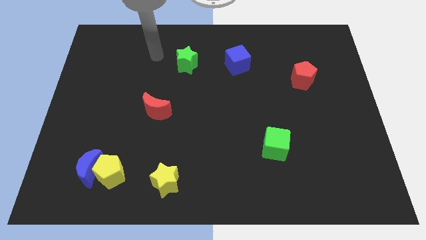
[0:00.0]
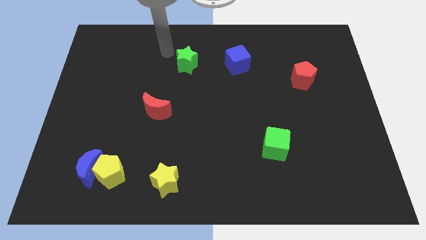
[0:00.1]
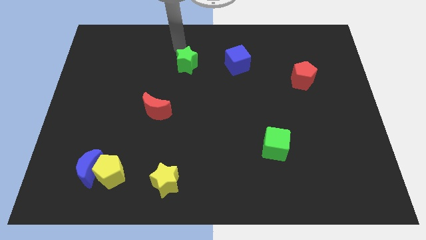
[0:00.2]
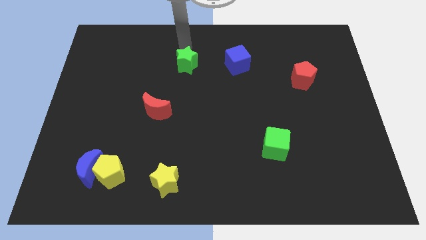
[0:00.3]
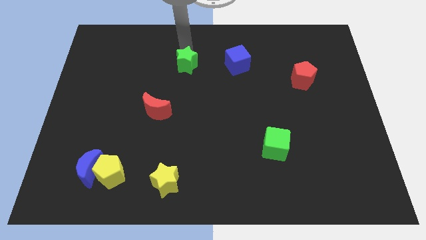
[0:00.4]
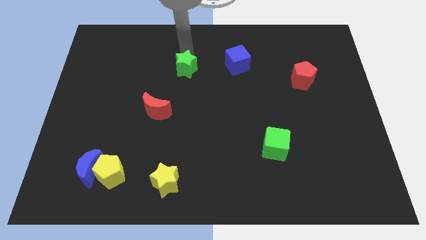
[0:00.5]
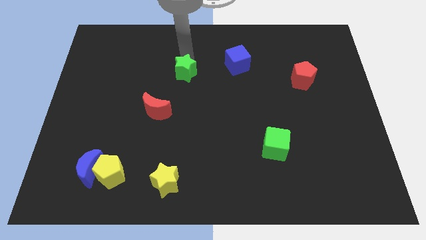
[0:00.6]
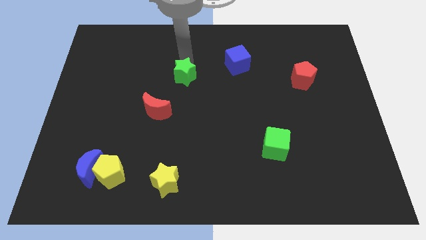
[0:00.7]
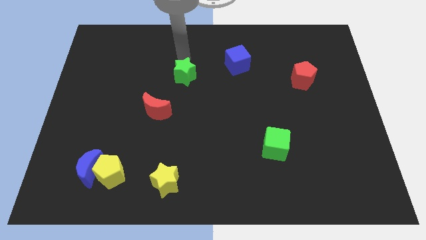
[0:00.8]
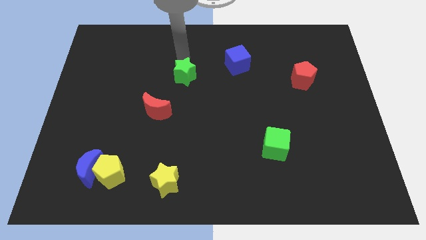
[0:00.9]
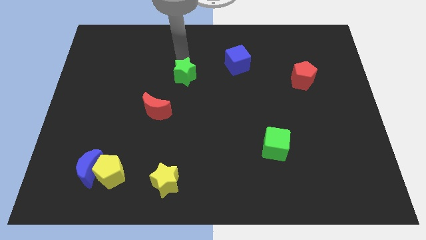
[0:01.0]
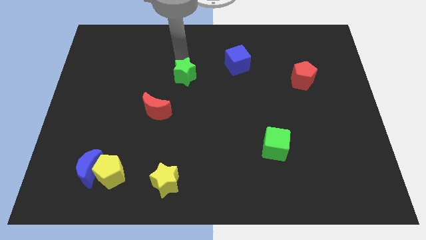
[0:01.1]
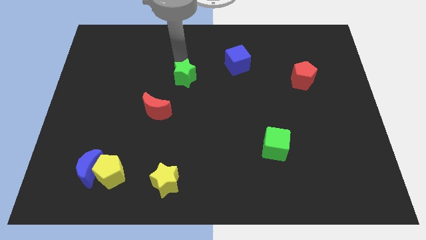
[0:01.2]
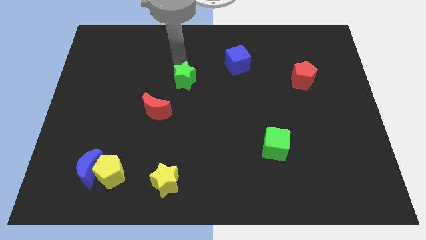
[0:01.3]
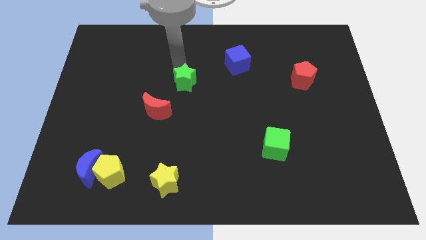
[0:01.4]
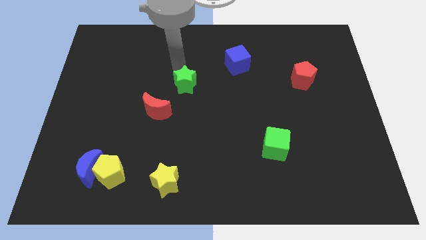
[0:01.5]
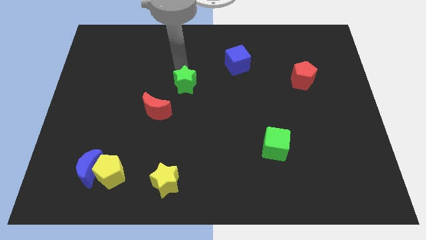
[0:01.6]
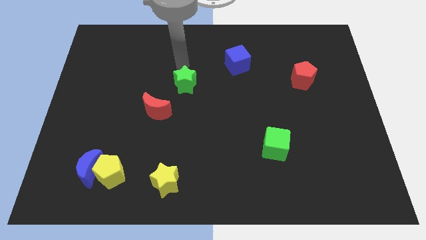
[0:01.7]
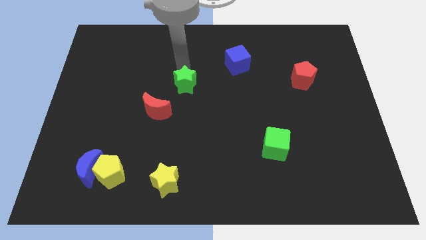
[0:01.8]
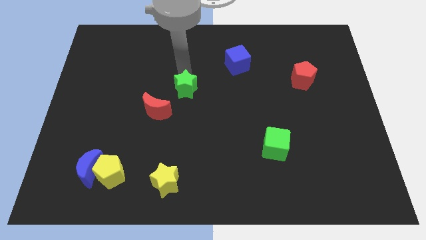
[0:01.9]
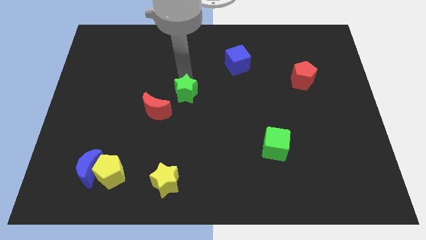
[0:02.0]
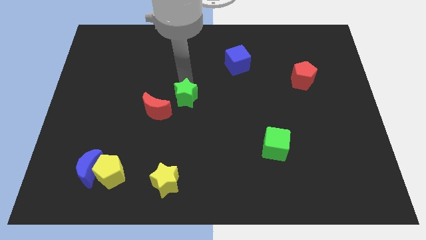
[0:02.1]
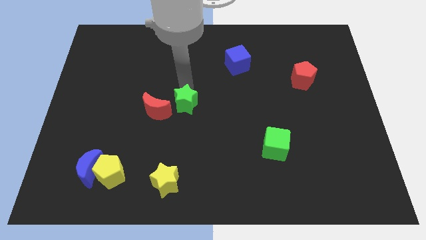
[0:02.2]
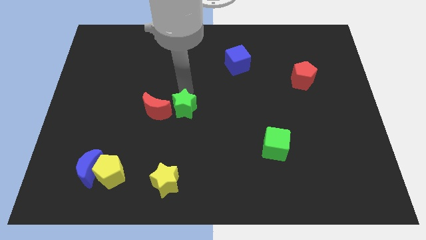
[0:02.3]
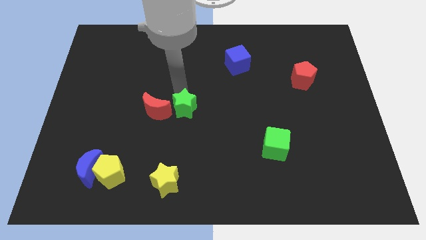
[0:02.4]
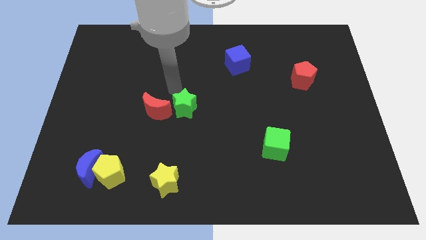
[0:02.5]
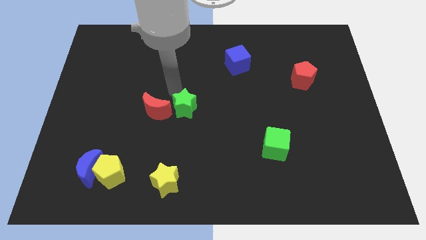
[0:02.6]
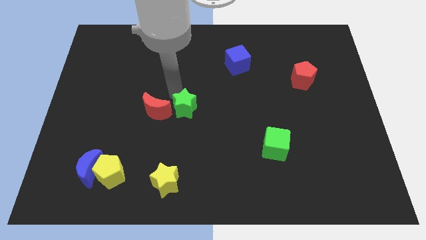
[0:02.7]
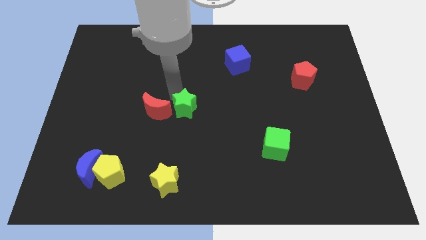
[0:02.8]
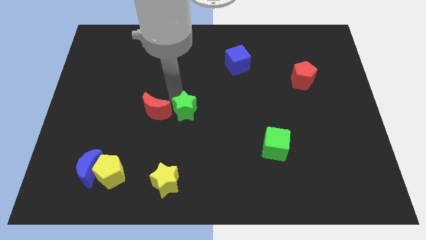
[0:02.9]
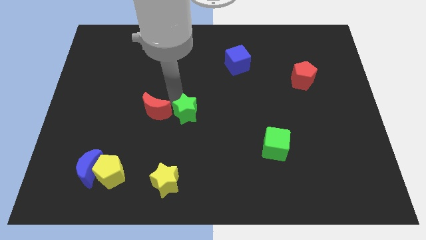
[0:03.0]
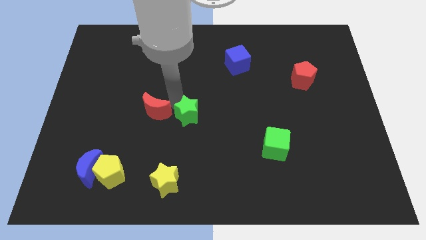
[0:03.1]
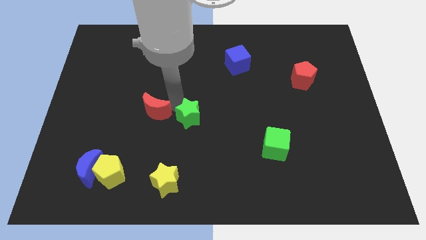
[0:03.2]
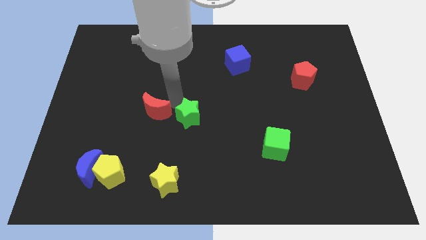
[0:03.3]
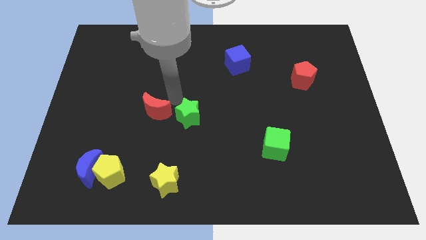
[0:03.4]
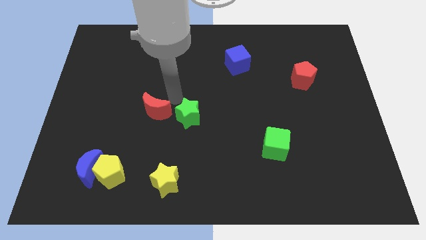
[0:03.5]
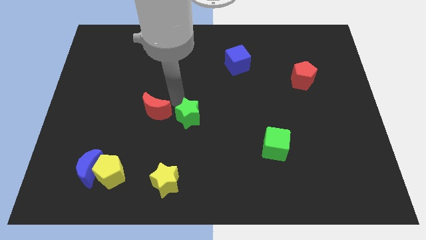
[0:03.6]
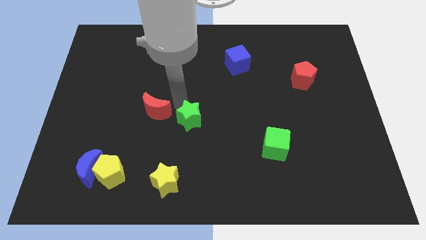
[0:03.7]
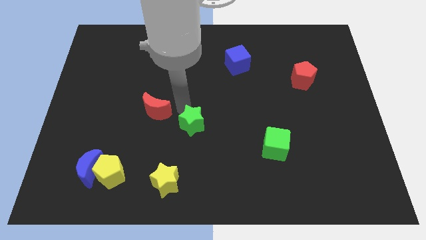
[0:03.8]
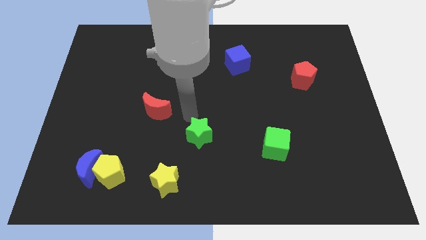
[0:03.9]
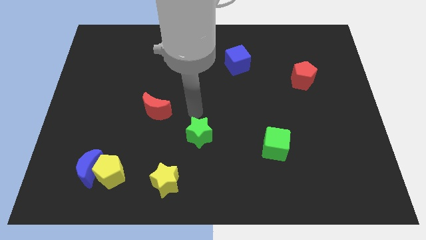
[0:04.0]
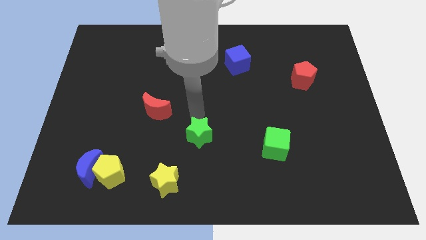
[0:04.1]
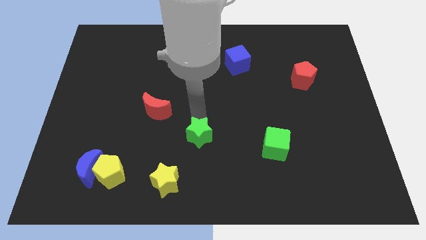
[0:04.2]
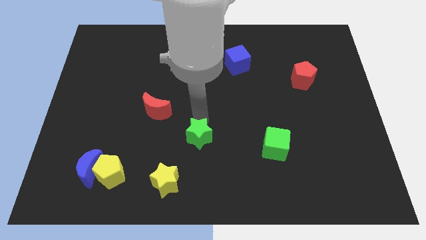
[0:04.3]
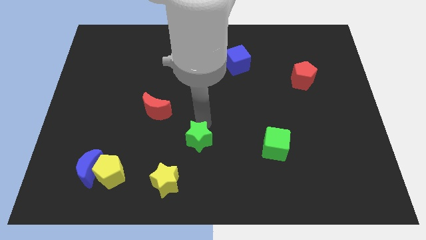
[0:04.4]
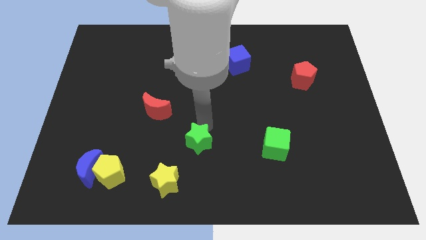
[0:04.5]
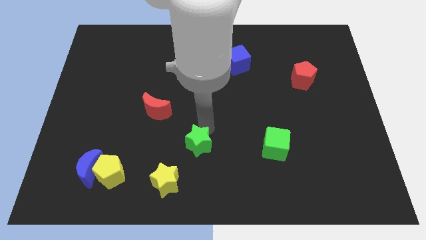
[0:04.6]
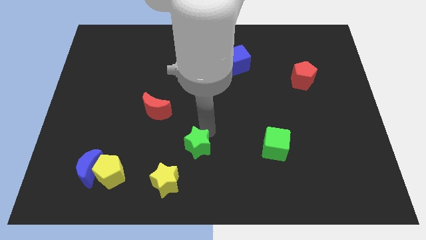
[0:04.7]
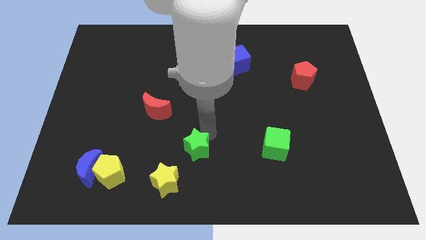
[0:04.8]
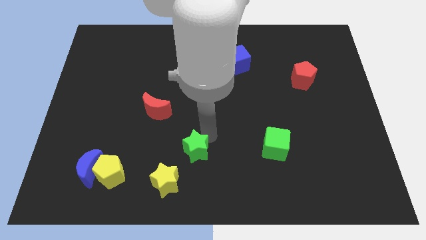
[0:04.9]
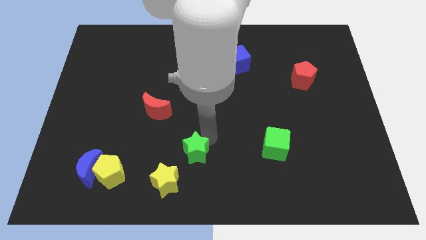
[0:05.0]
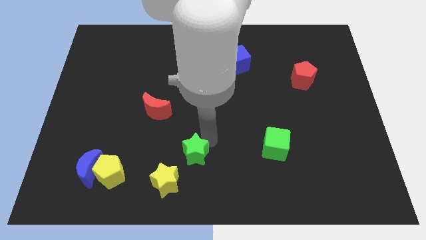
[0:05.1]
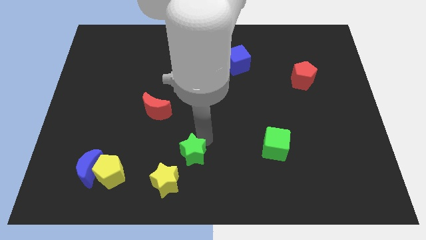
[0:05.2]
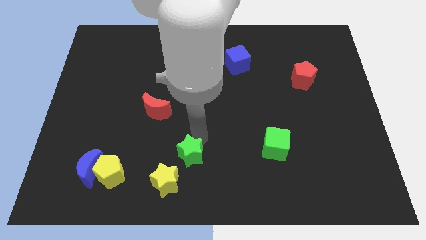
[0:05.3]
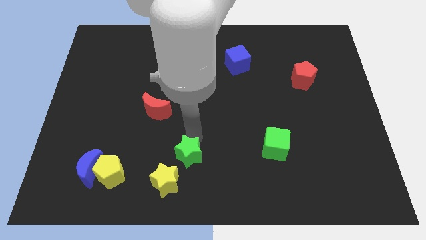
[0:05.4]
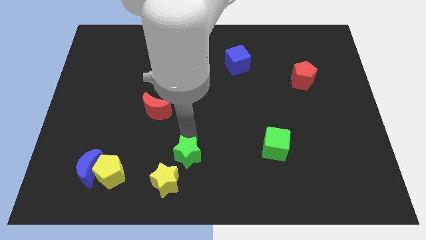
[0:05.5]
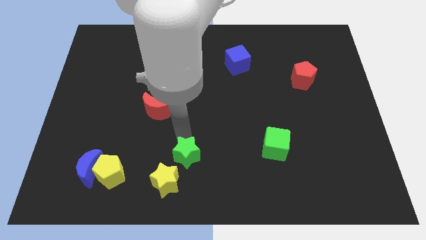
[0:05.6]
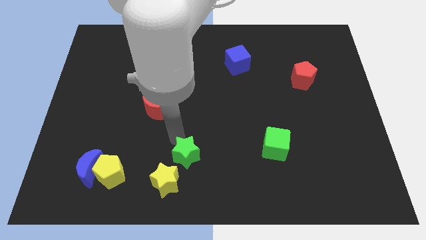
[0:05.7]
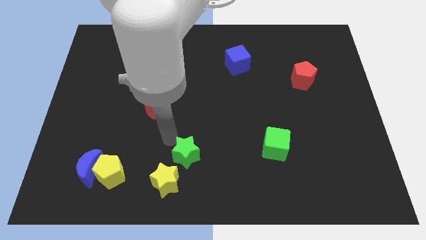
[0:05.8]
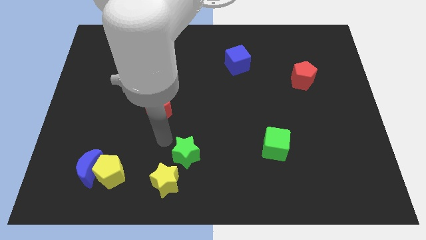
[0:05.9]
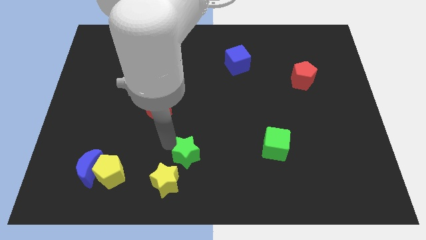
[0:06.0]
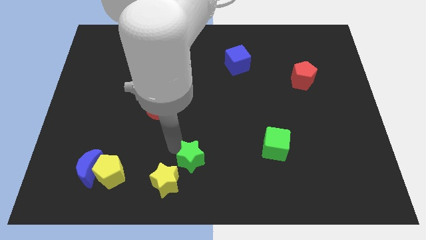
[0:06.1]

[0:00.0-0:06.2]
move the green star to the bottom
